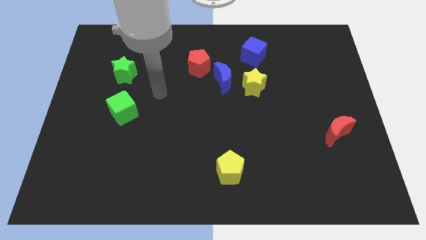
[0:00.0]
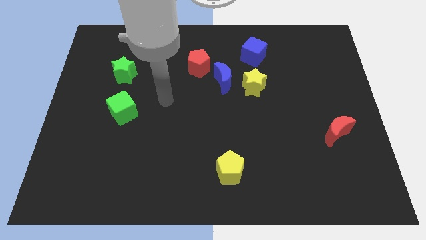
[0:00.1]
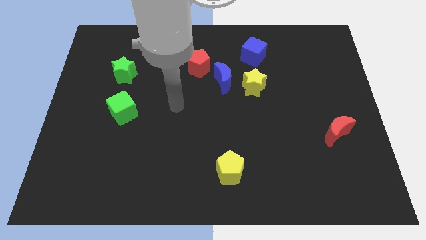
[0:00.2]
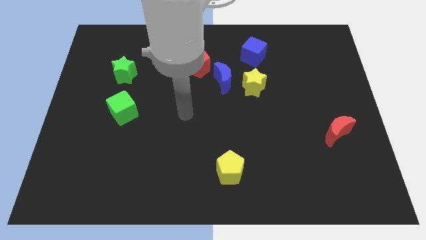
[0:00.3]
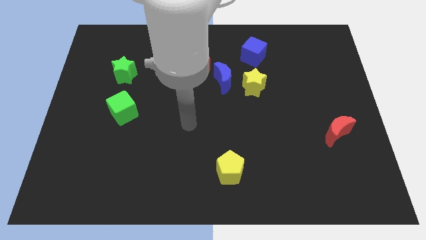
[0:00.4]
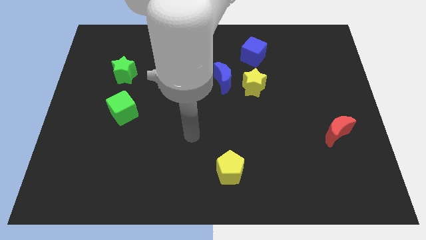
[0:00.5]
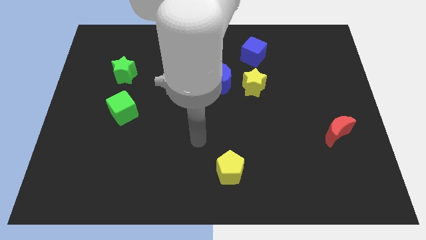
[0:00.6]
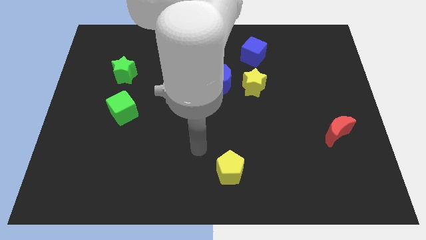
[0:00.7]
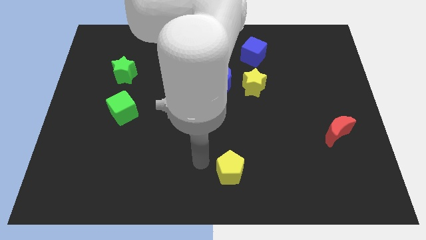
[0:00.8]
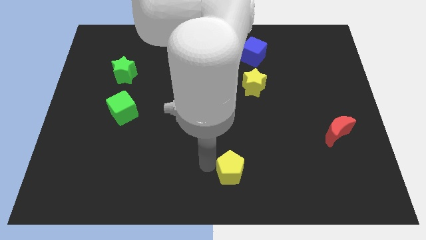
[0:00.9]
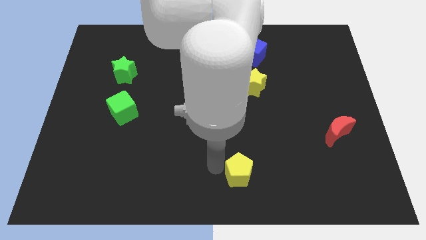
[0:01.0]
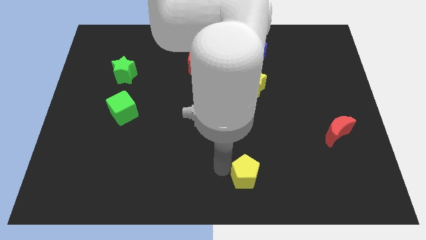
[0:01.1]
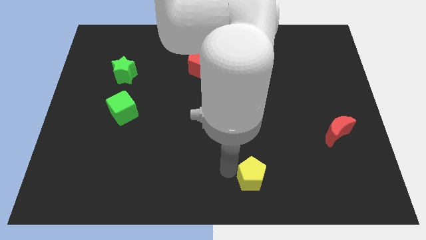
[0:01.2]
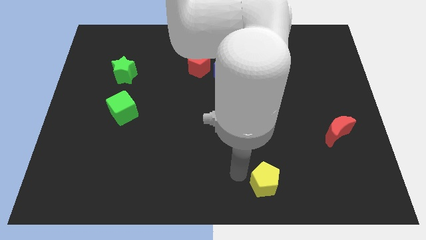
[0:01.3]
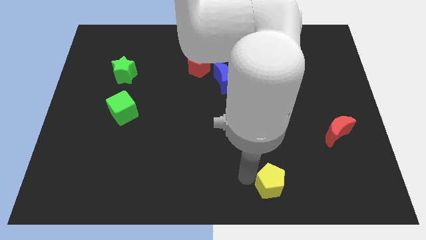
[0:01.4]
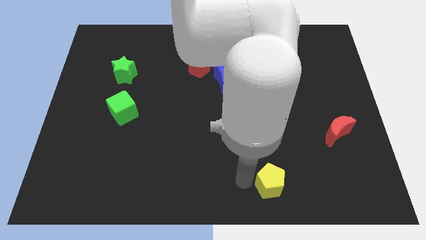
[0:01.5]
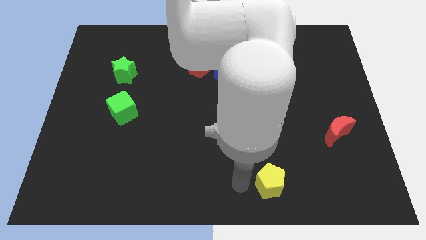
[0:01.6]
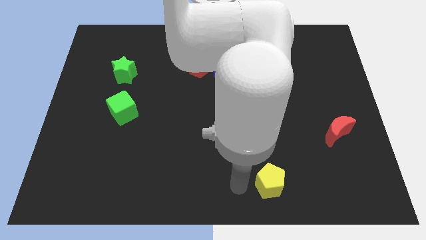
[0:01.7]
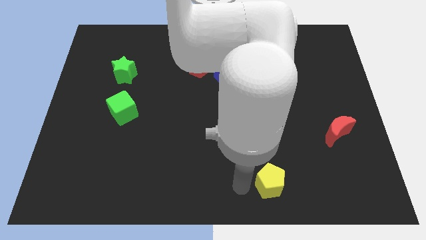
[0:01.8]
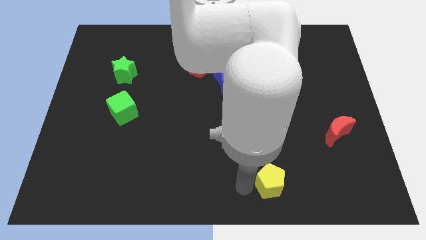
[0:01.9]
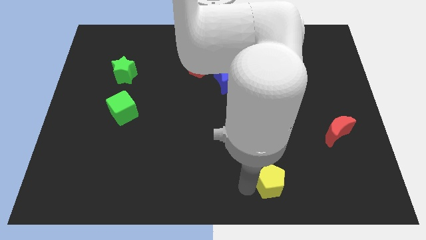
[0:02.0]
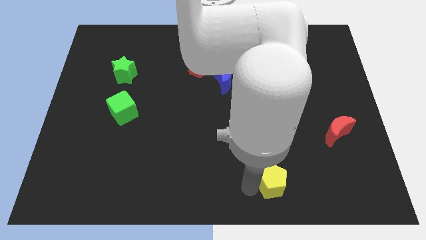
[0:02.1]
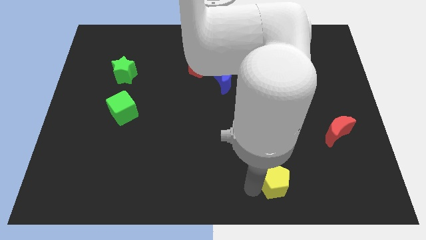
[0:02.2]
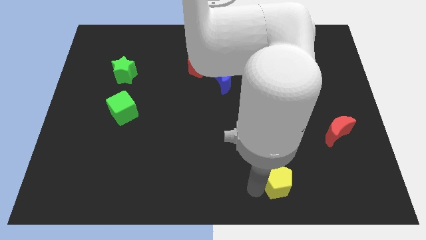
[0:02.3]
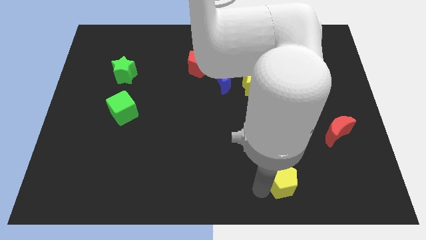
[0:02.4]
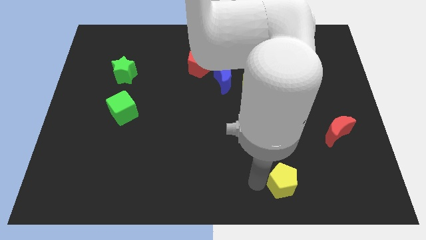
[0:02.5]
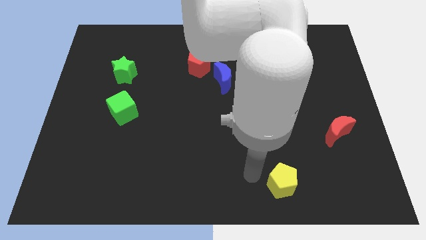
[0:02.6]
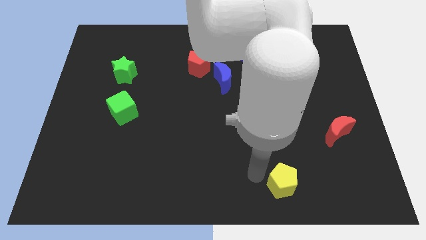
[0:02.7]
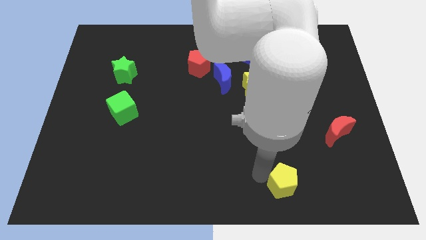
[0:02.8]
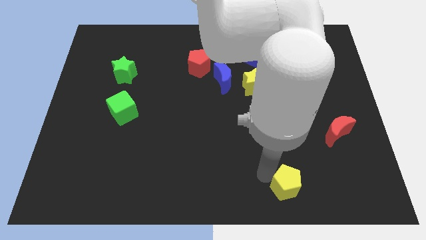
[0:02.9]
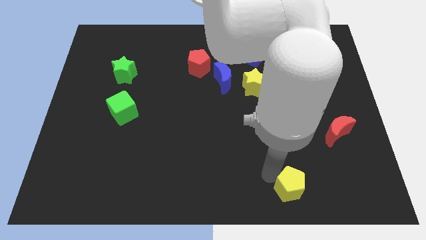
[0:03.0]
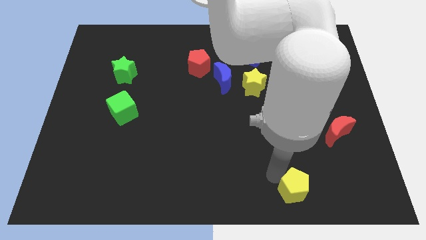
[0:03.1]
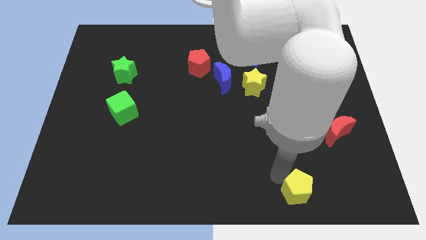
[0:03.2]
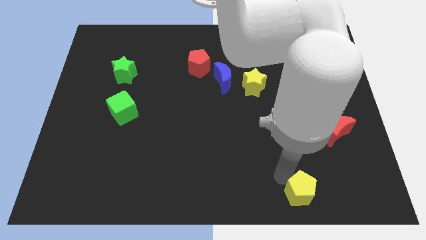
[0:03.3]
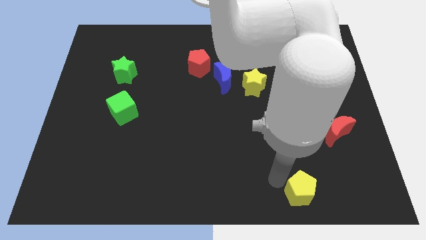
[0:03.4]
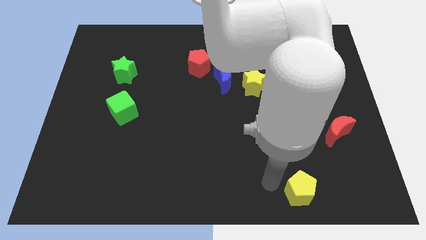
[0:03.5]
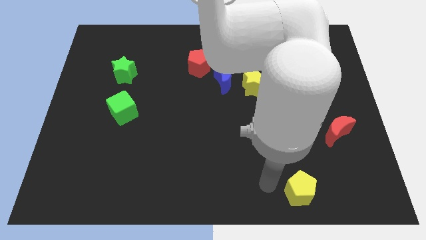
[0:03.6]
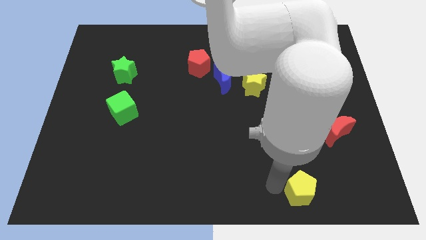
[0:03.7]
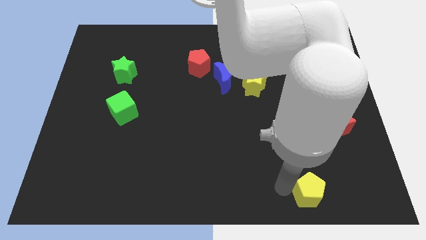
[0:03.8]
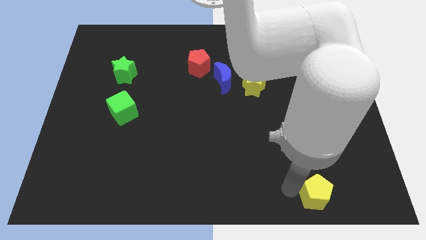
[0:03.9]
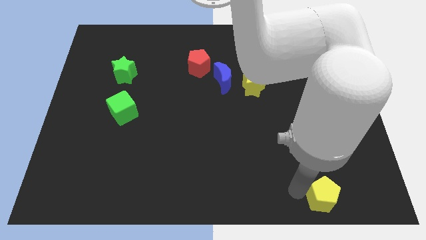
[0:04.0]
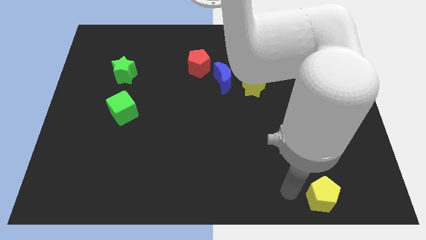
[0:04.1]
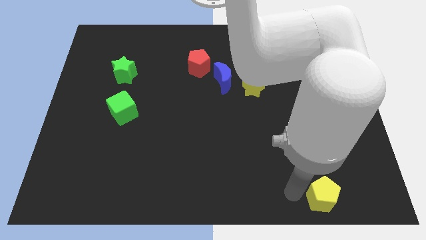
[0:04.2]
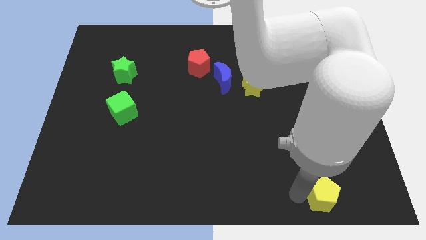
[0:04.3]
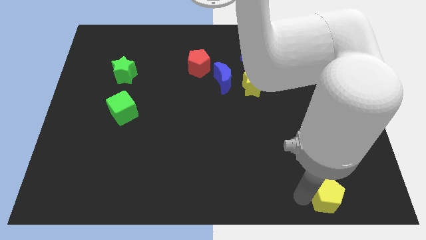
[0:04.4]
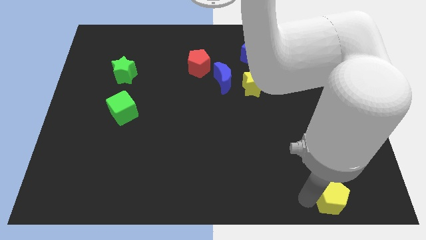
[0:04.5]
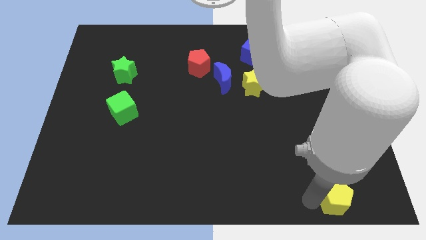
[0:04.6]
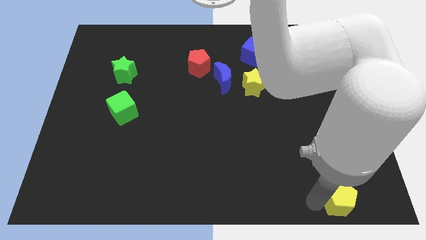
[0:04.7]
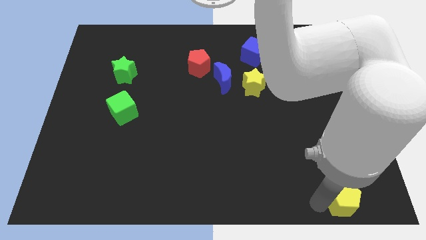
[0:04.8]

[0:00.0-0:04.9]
push the yellow pentagon to the bottom right of the board

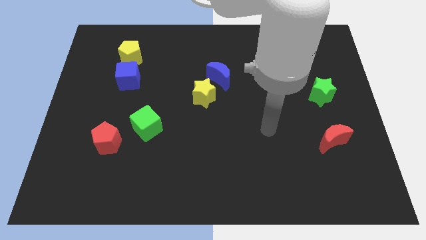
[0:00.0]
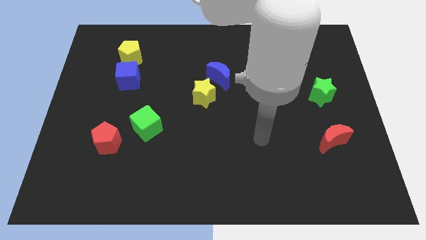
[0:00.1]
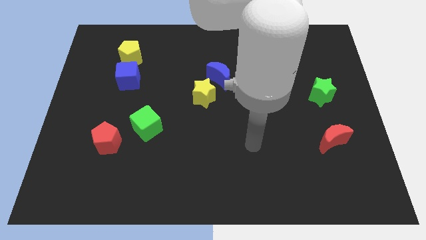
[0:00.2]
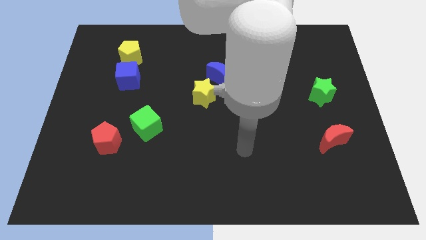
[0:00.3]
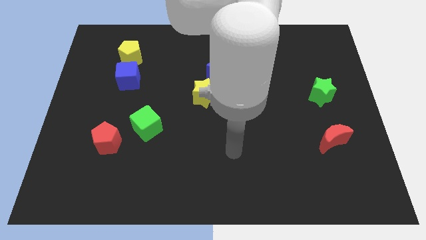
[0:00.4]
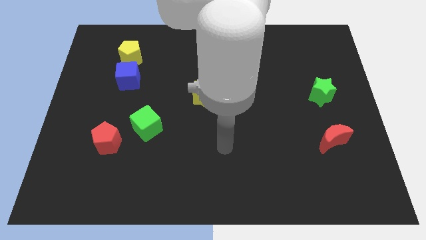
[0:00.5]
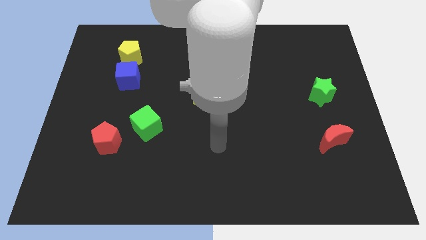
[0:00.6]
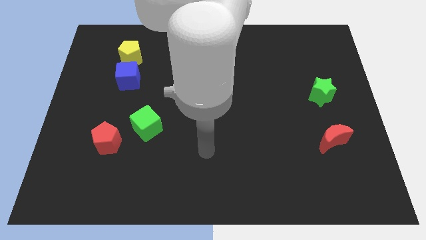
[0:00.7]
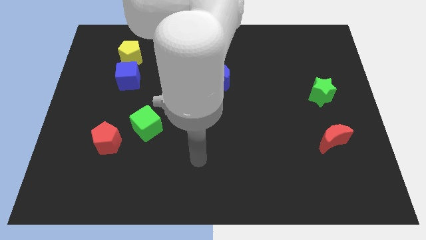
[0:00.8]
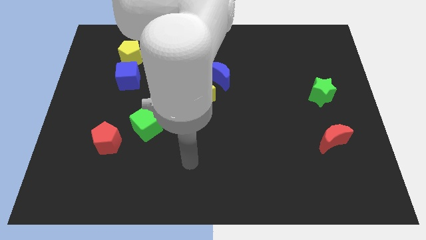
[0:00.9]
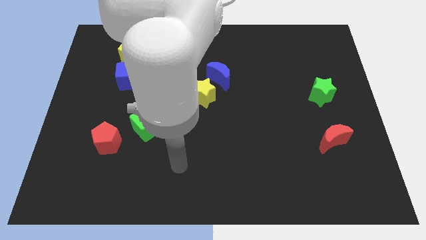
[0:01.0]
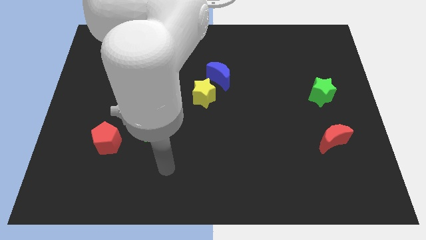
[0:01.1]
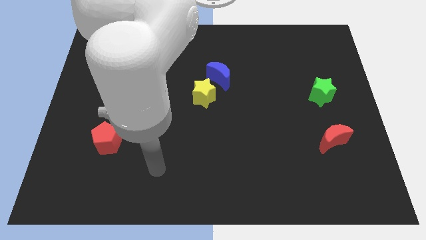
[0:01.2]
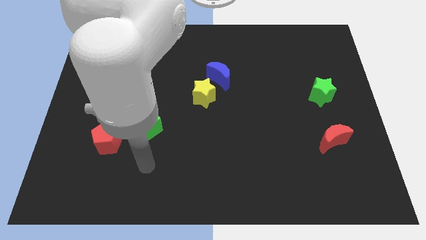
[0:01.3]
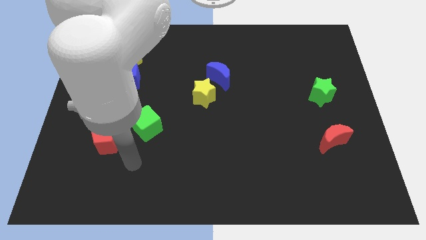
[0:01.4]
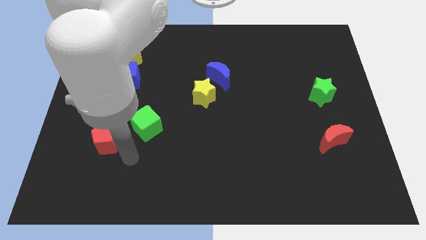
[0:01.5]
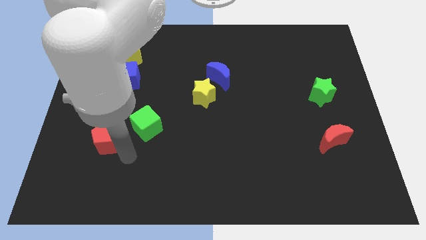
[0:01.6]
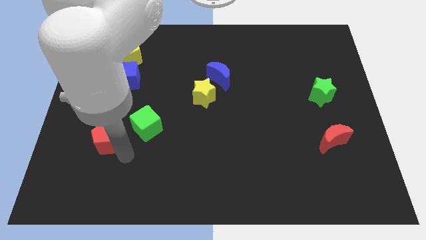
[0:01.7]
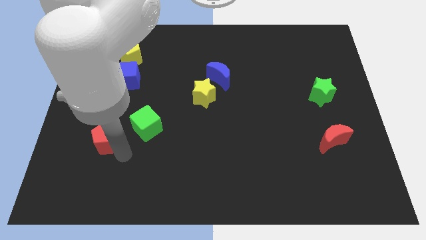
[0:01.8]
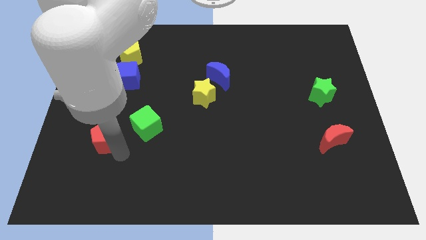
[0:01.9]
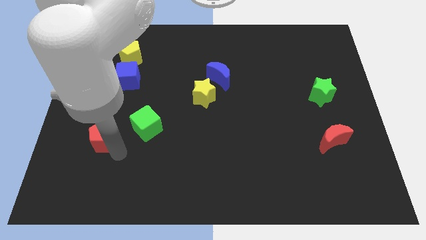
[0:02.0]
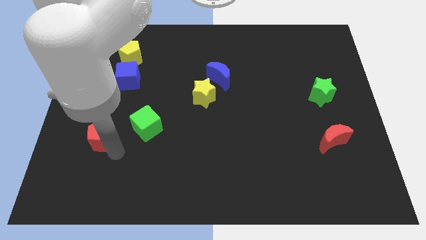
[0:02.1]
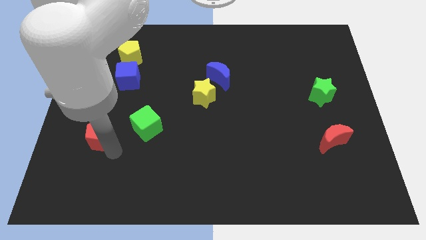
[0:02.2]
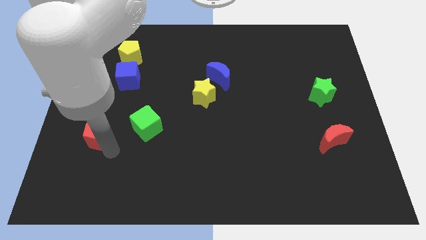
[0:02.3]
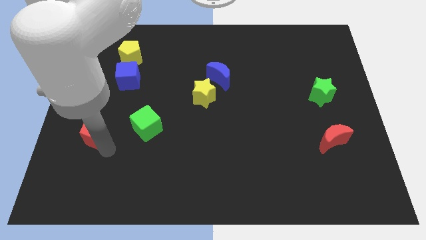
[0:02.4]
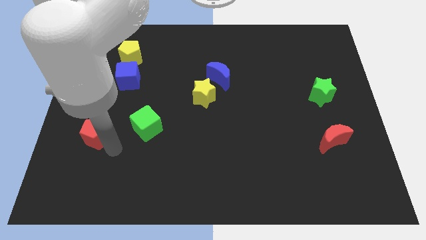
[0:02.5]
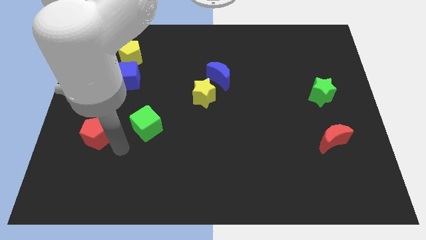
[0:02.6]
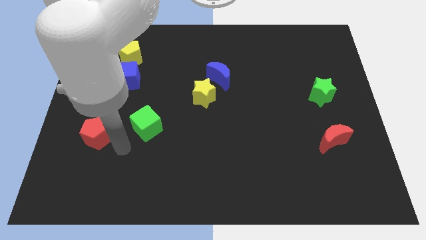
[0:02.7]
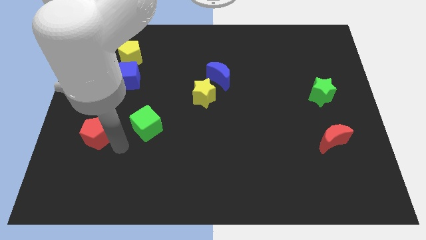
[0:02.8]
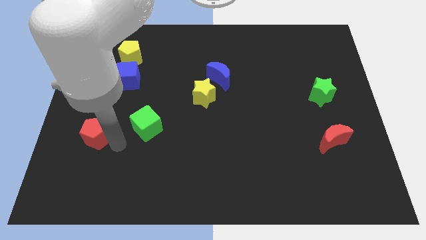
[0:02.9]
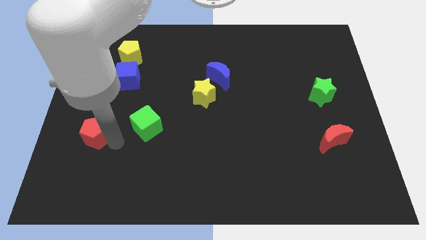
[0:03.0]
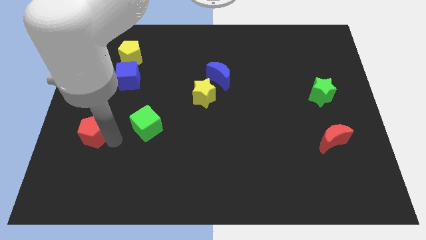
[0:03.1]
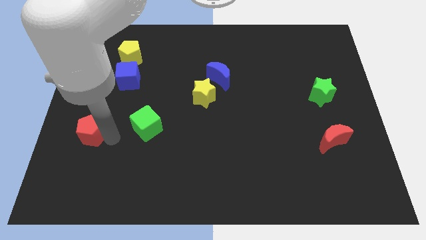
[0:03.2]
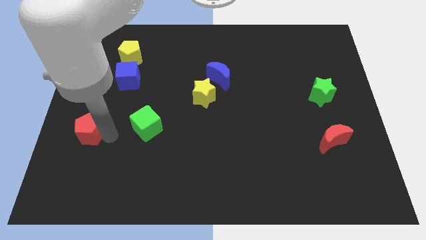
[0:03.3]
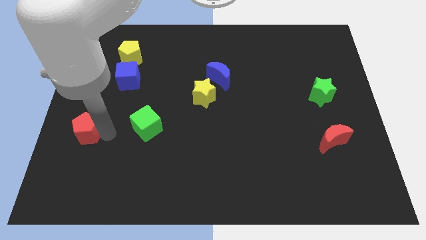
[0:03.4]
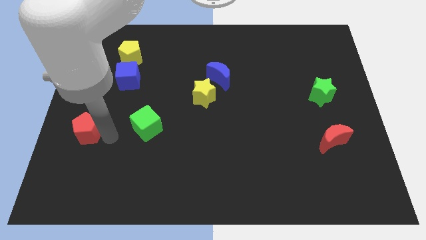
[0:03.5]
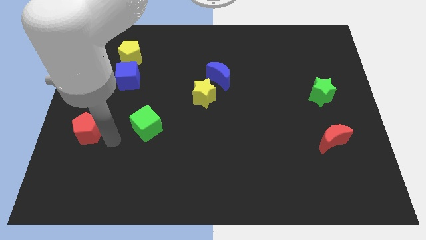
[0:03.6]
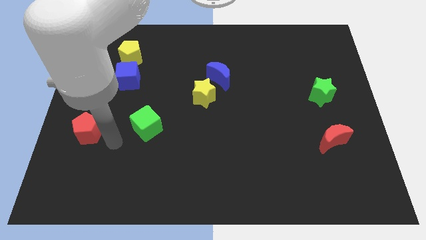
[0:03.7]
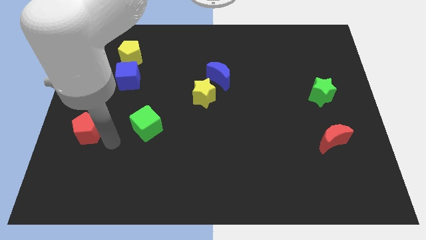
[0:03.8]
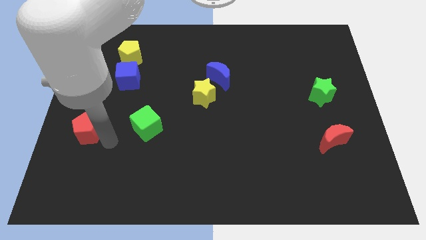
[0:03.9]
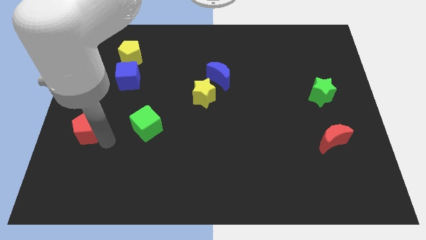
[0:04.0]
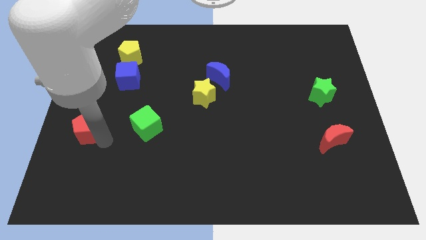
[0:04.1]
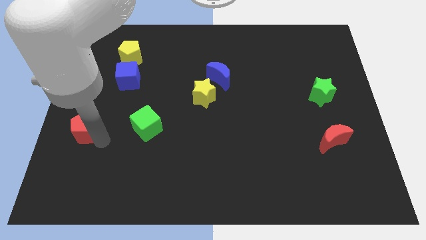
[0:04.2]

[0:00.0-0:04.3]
push the red pentagon to the left side
